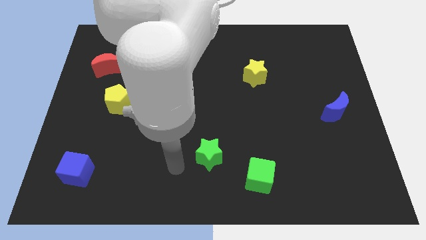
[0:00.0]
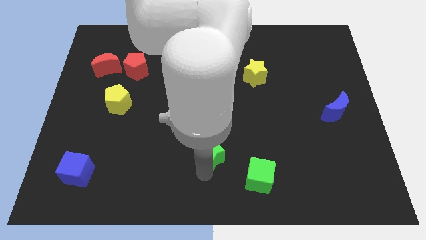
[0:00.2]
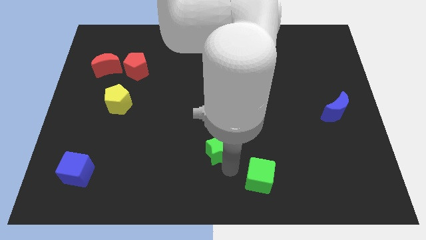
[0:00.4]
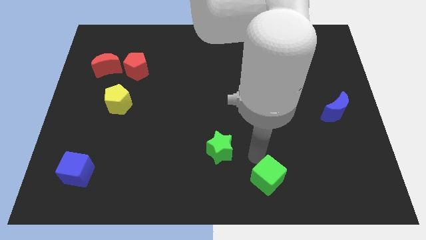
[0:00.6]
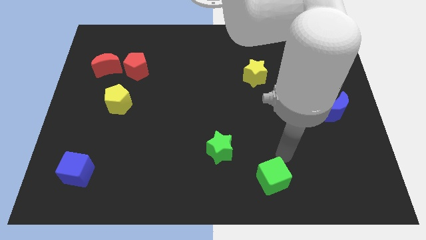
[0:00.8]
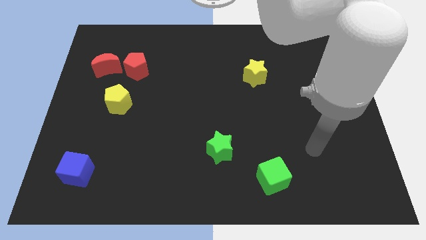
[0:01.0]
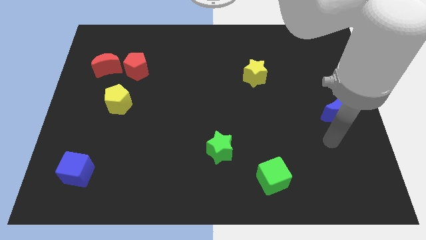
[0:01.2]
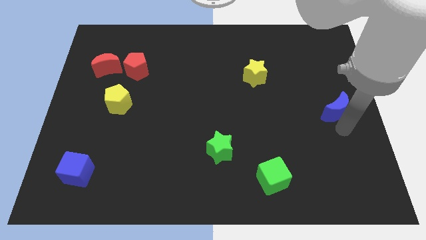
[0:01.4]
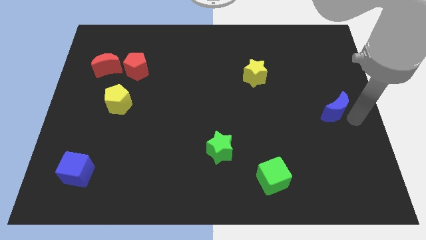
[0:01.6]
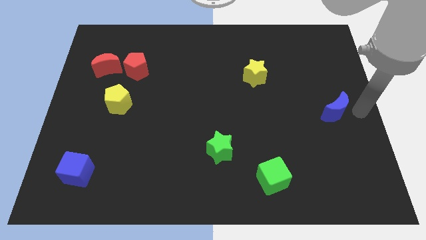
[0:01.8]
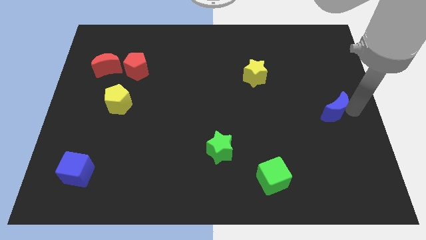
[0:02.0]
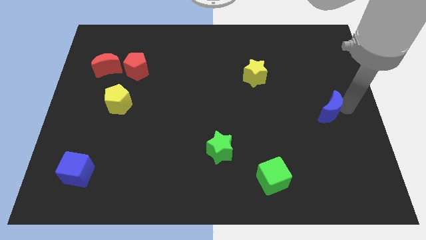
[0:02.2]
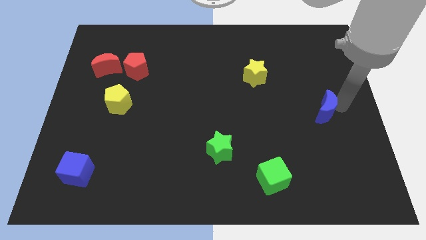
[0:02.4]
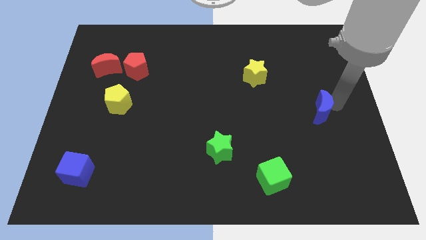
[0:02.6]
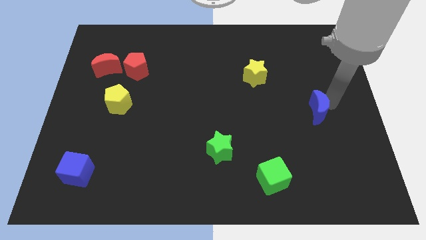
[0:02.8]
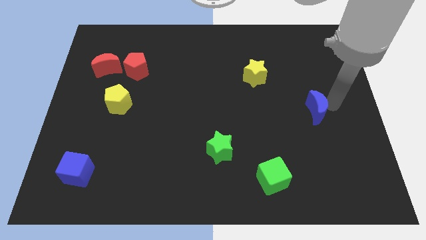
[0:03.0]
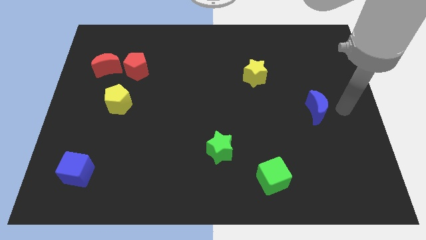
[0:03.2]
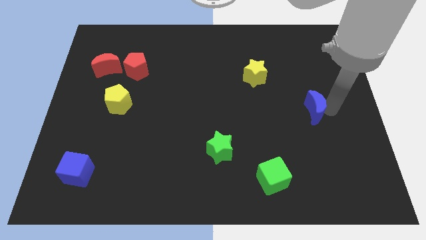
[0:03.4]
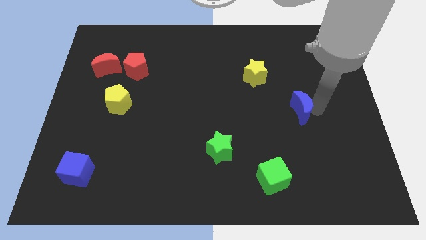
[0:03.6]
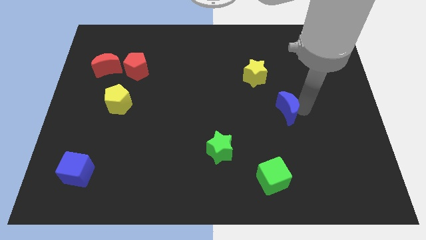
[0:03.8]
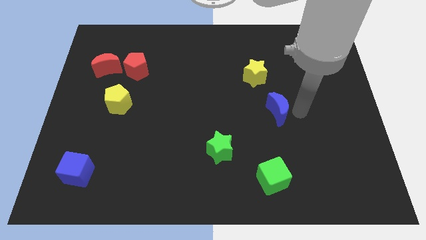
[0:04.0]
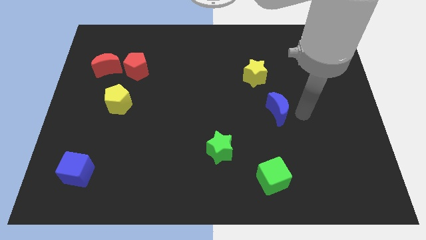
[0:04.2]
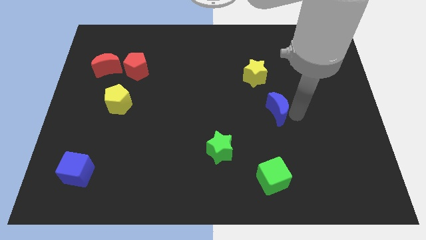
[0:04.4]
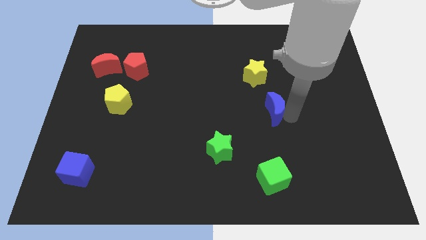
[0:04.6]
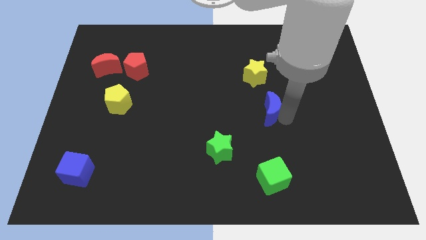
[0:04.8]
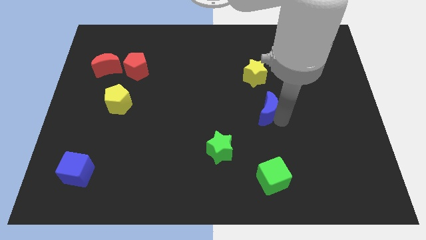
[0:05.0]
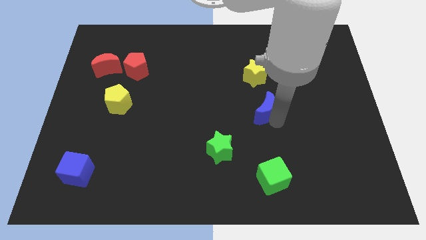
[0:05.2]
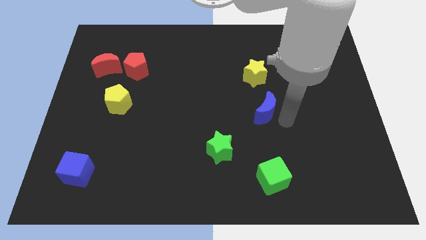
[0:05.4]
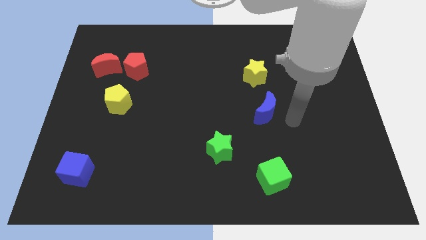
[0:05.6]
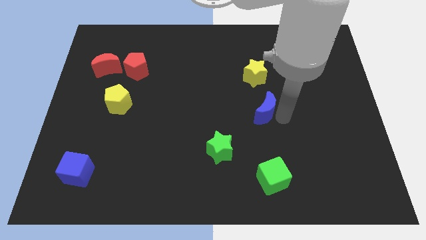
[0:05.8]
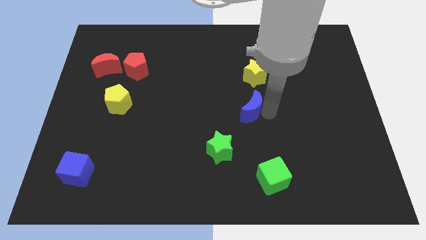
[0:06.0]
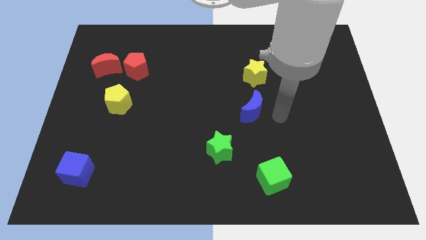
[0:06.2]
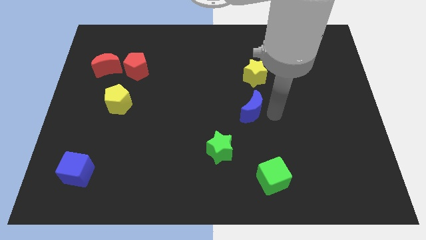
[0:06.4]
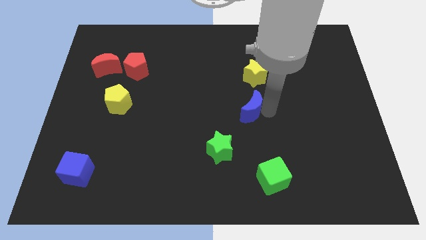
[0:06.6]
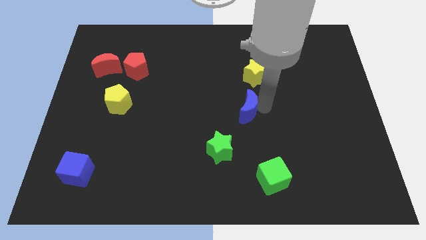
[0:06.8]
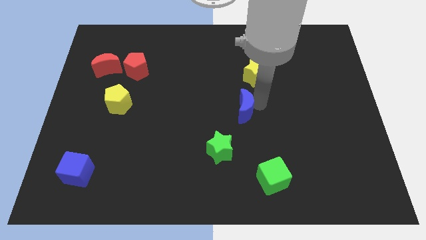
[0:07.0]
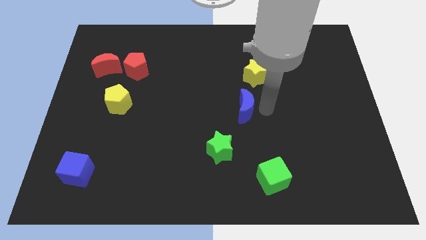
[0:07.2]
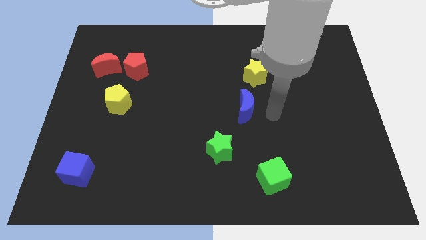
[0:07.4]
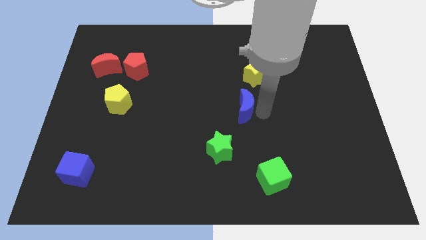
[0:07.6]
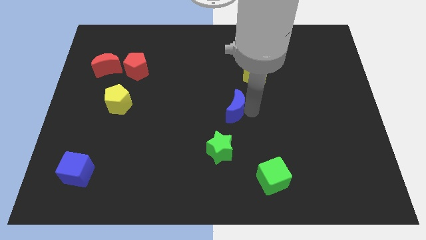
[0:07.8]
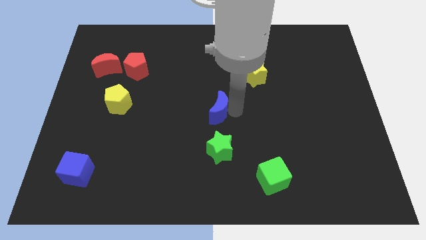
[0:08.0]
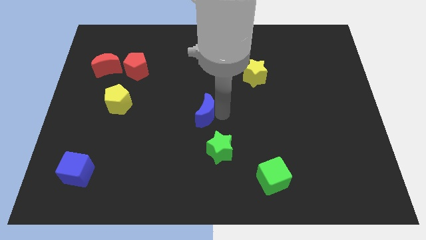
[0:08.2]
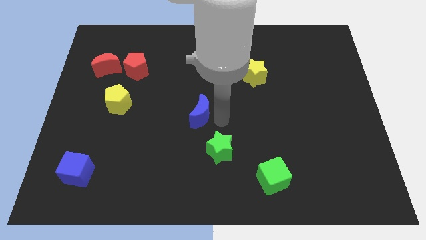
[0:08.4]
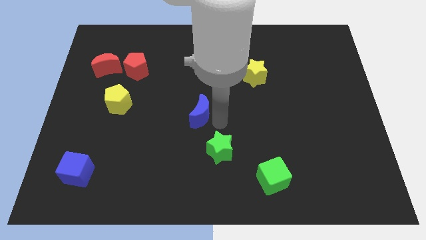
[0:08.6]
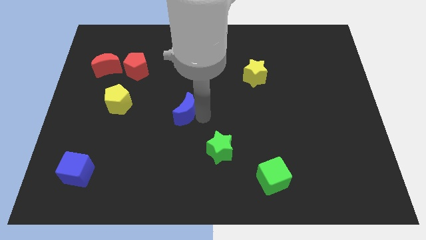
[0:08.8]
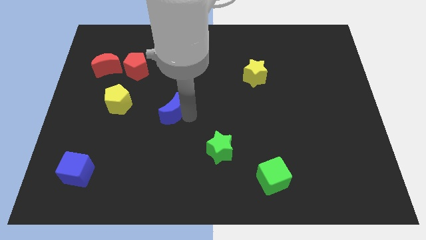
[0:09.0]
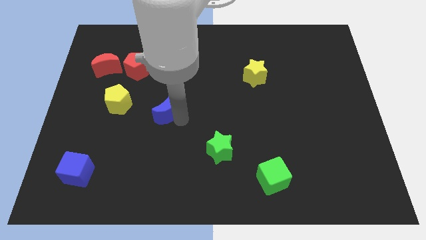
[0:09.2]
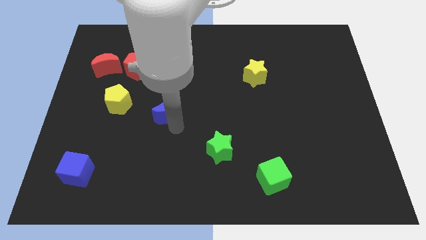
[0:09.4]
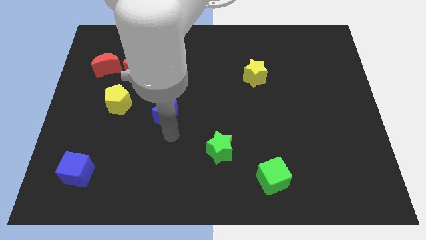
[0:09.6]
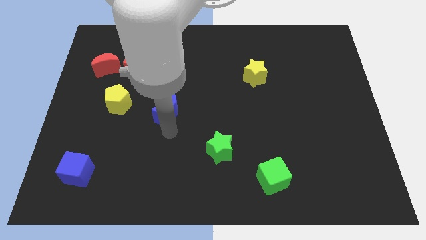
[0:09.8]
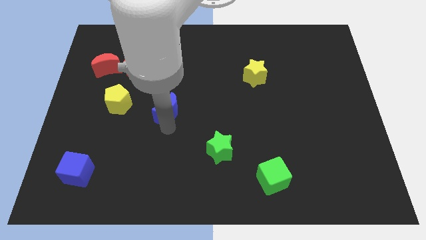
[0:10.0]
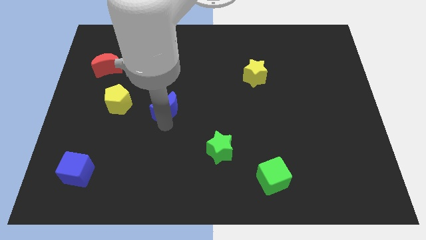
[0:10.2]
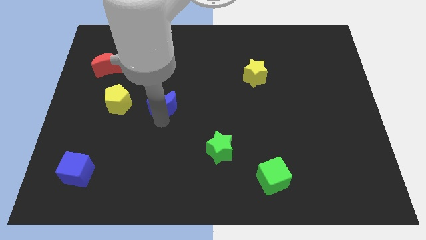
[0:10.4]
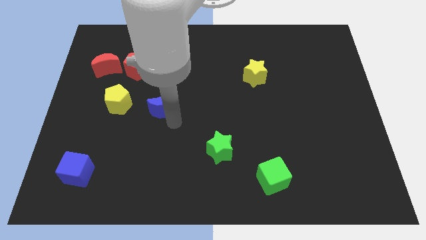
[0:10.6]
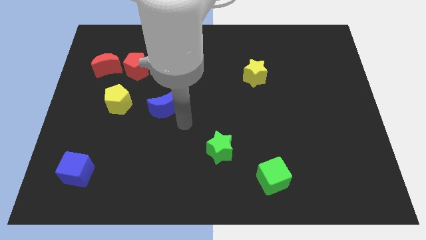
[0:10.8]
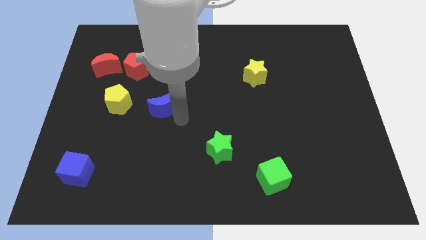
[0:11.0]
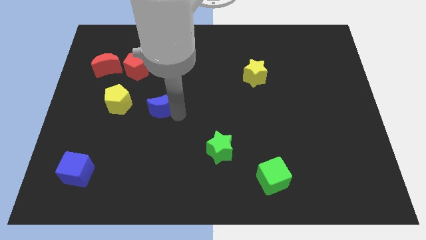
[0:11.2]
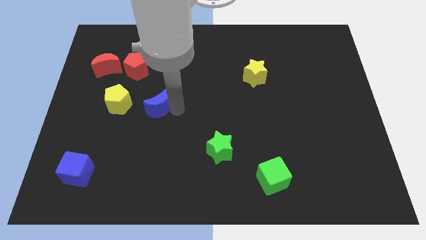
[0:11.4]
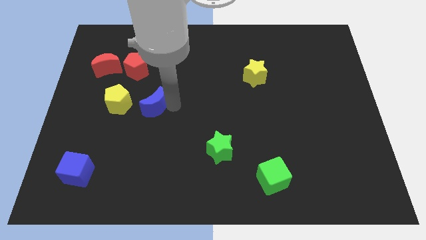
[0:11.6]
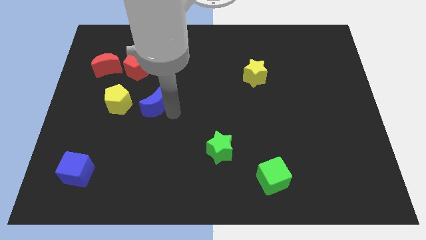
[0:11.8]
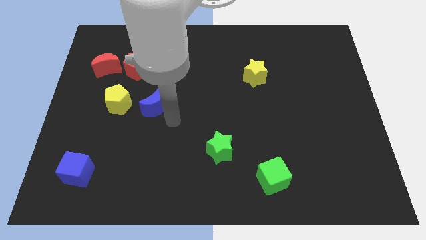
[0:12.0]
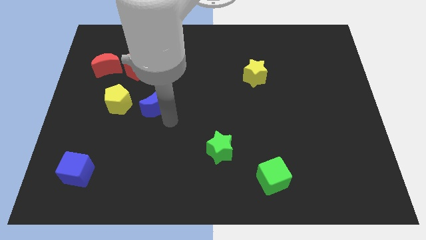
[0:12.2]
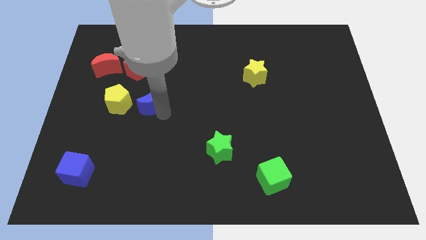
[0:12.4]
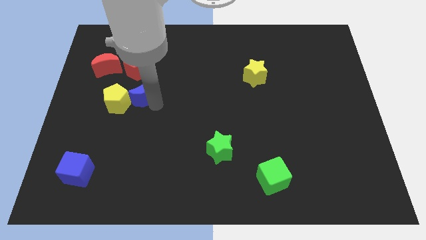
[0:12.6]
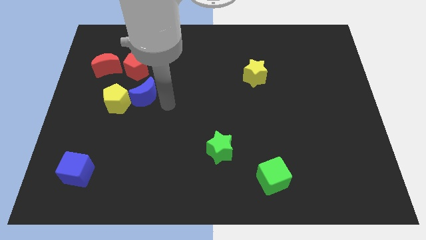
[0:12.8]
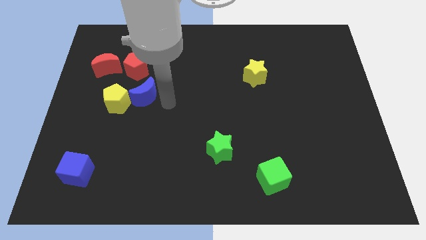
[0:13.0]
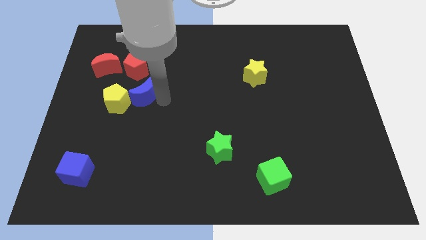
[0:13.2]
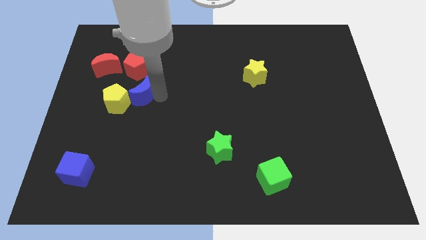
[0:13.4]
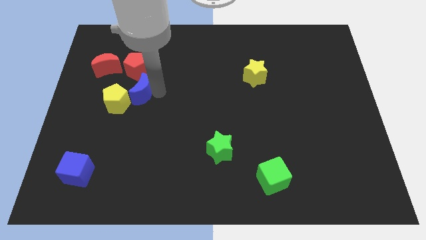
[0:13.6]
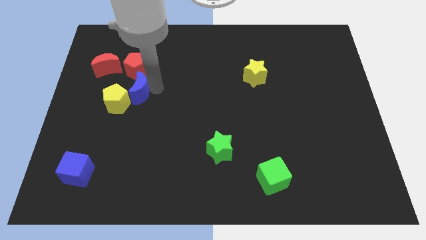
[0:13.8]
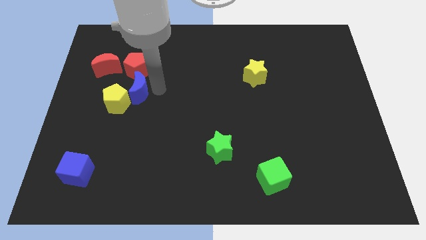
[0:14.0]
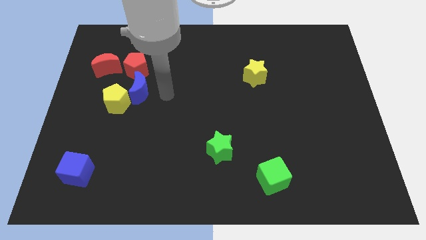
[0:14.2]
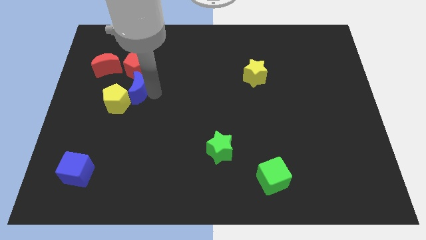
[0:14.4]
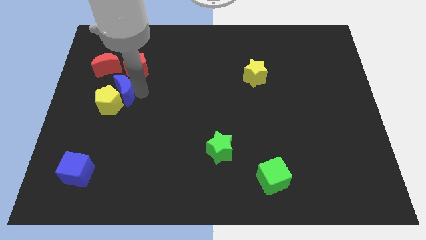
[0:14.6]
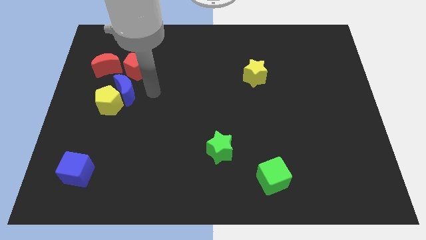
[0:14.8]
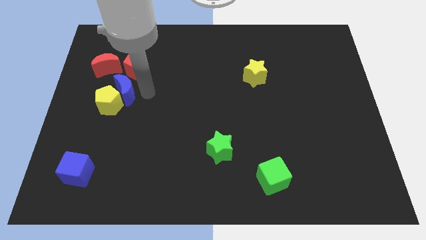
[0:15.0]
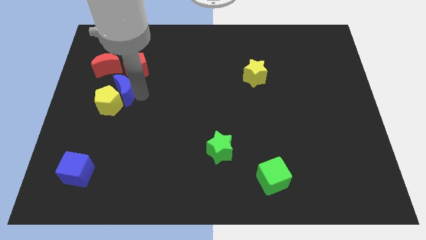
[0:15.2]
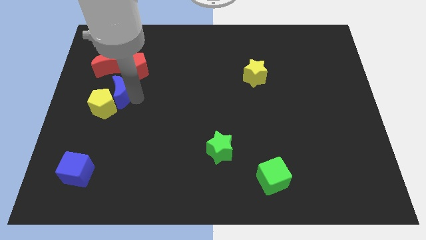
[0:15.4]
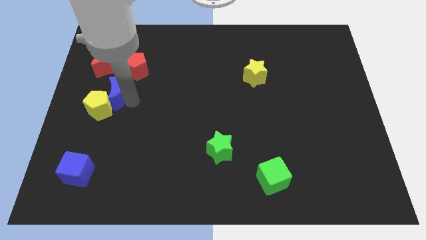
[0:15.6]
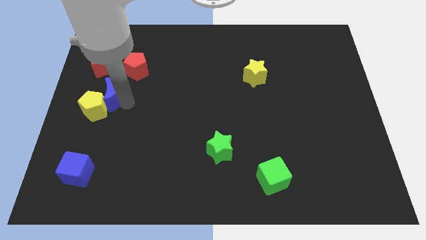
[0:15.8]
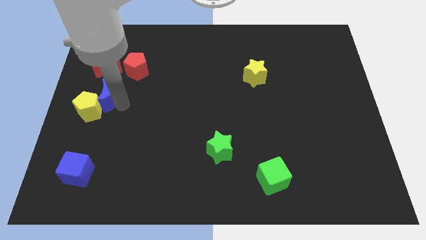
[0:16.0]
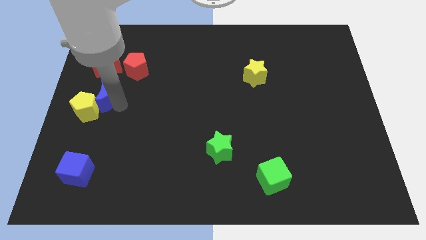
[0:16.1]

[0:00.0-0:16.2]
put the blue moon to the left side
